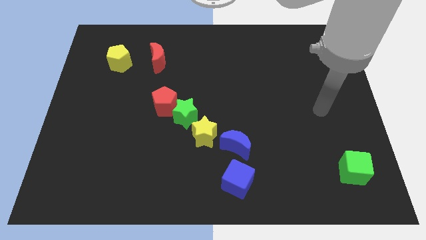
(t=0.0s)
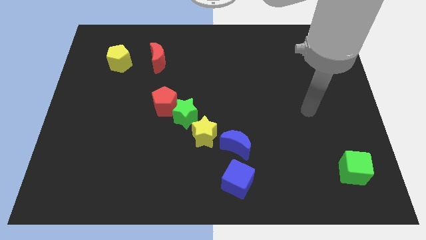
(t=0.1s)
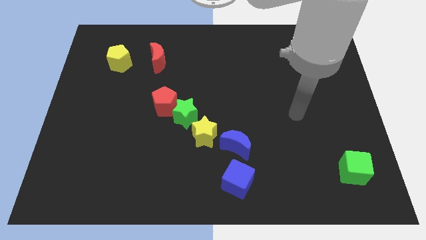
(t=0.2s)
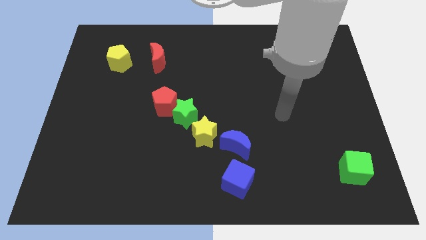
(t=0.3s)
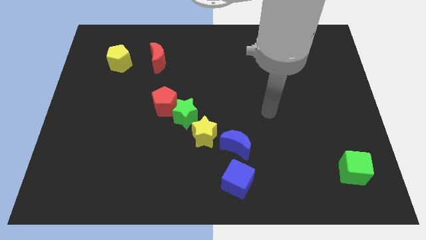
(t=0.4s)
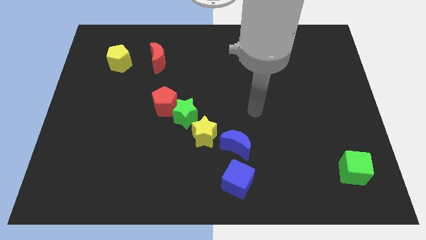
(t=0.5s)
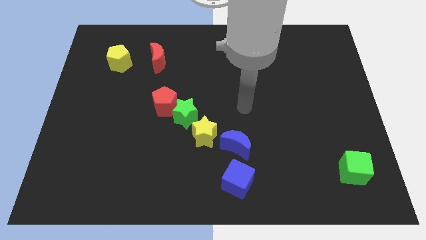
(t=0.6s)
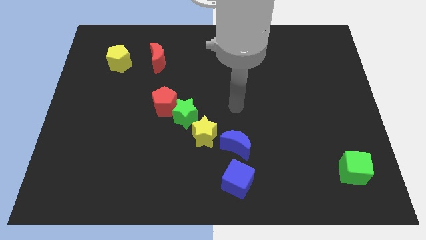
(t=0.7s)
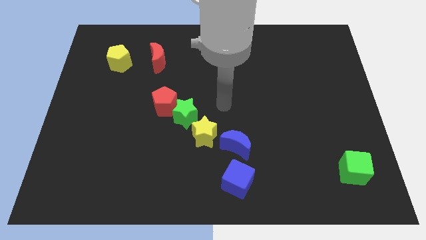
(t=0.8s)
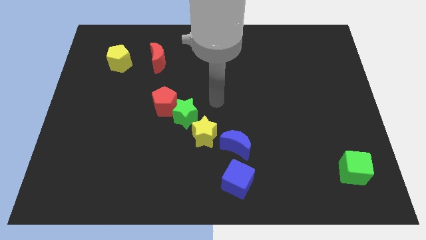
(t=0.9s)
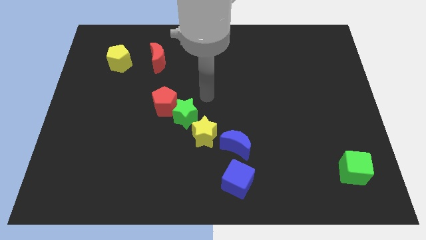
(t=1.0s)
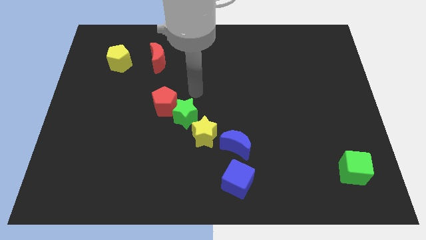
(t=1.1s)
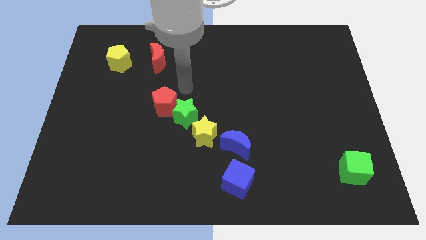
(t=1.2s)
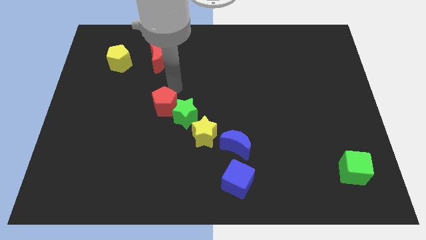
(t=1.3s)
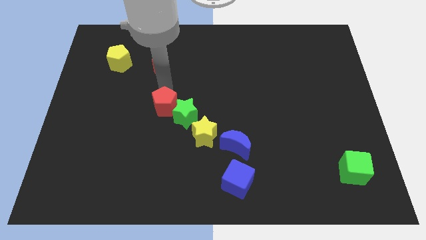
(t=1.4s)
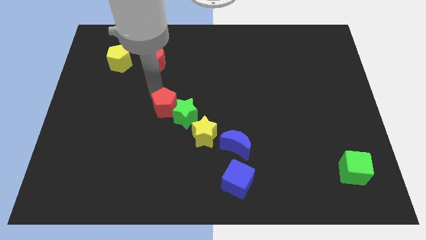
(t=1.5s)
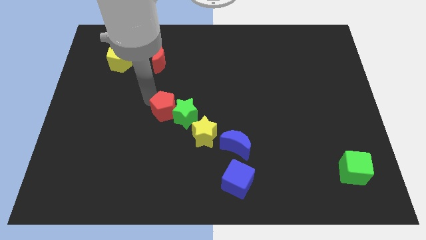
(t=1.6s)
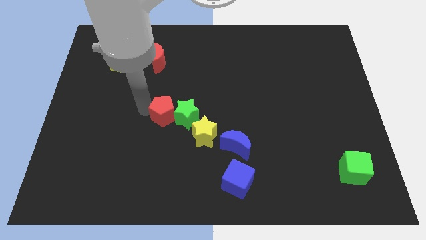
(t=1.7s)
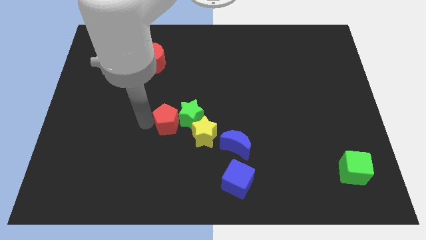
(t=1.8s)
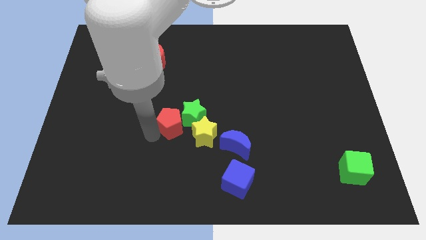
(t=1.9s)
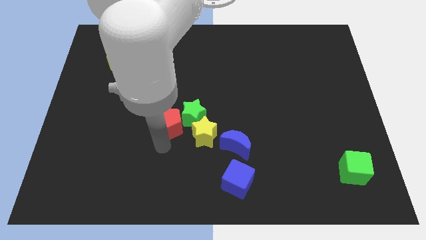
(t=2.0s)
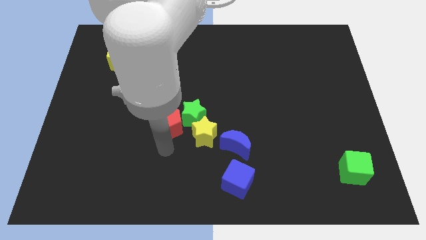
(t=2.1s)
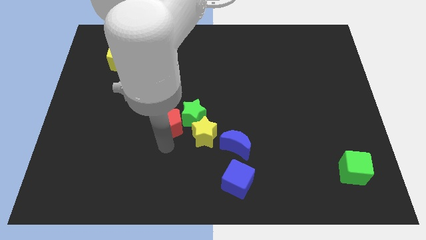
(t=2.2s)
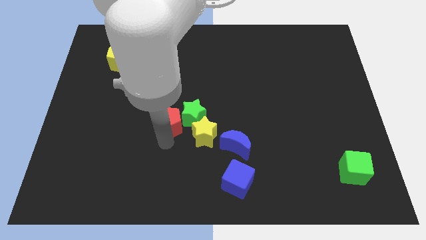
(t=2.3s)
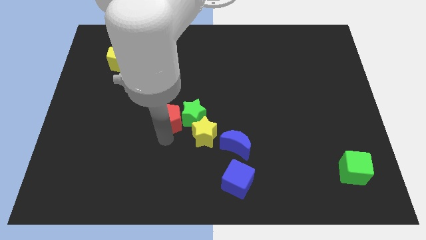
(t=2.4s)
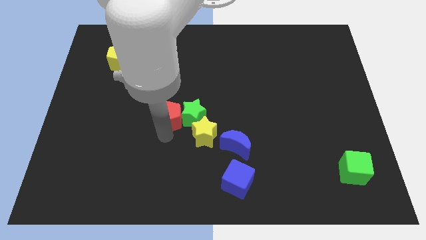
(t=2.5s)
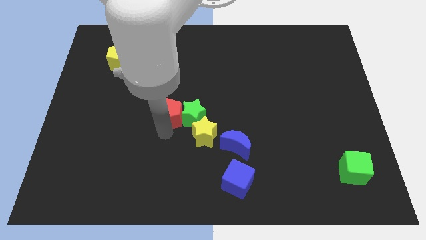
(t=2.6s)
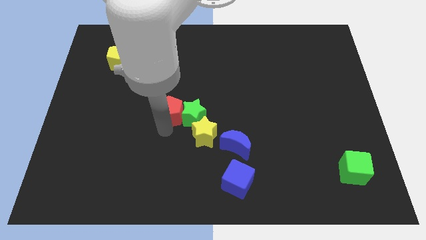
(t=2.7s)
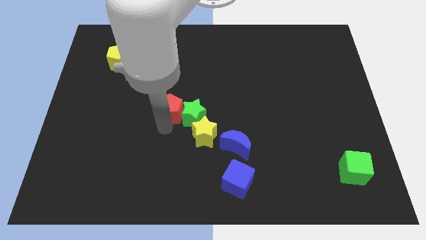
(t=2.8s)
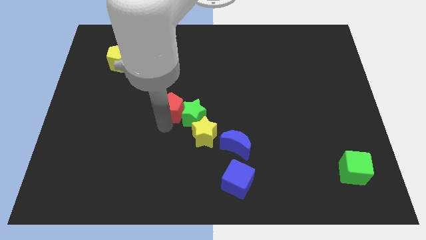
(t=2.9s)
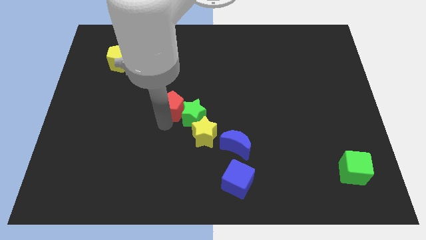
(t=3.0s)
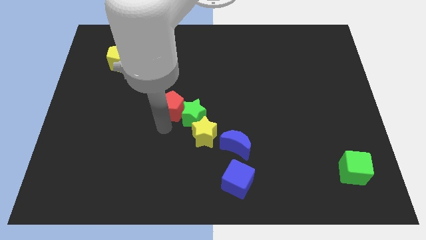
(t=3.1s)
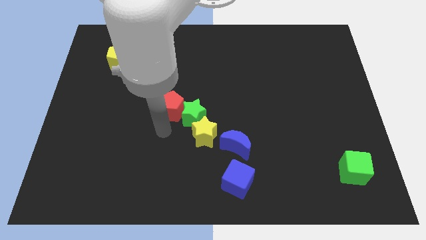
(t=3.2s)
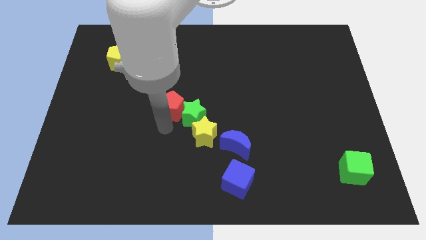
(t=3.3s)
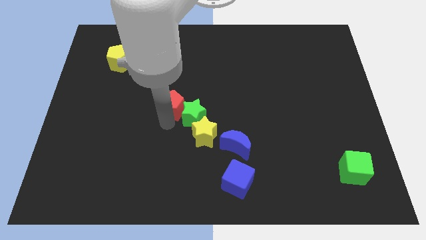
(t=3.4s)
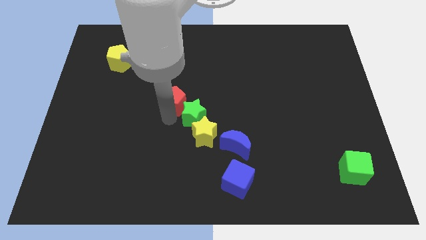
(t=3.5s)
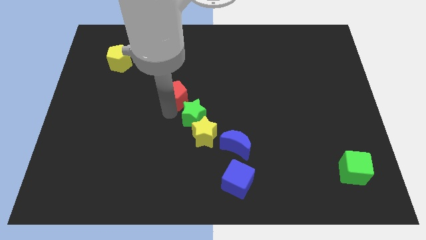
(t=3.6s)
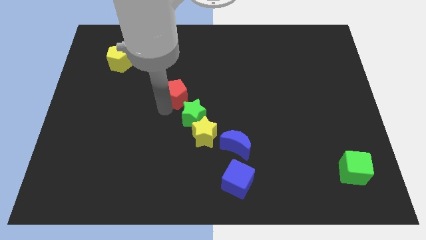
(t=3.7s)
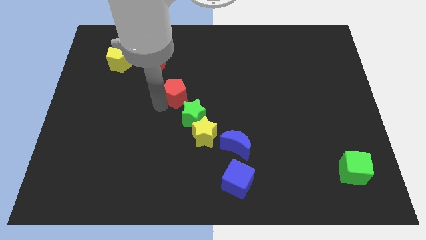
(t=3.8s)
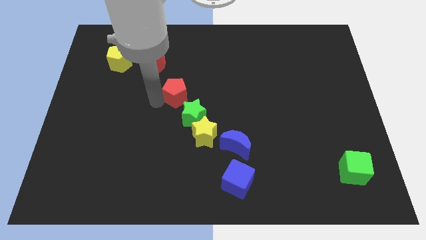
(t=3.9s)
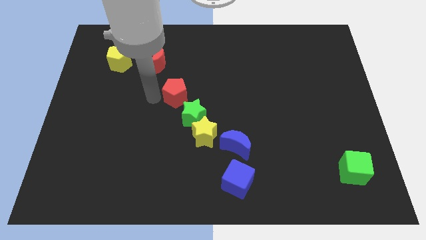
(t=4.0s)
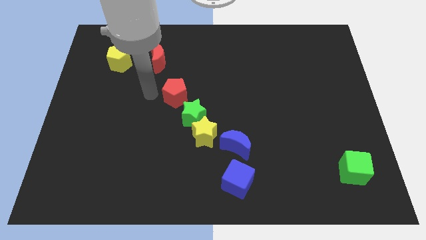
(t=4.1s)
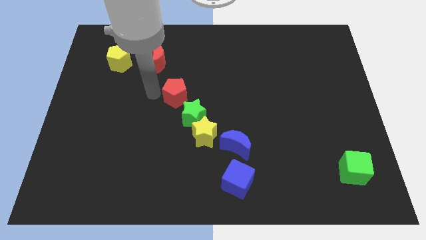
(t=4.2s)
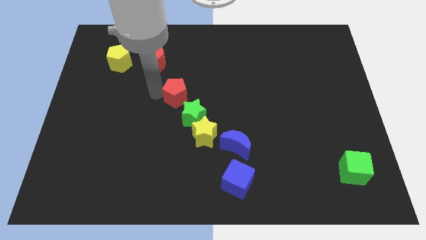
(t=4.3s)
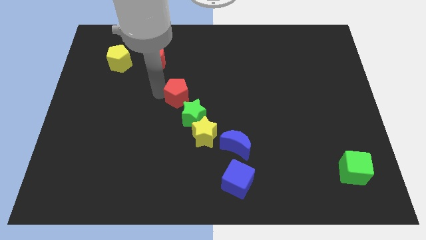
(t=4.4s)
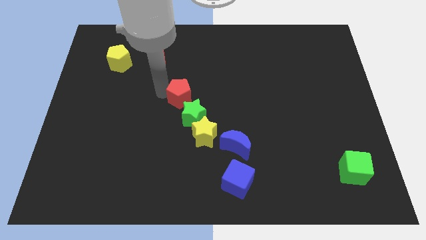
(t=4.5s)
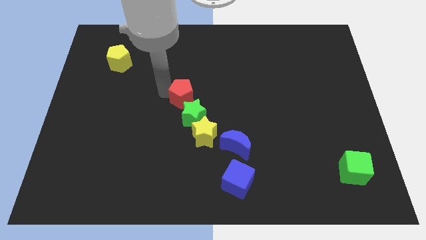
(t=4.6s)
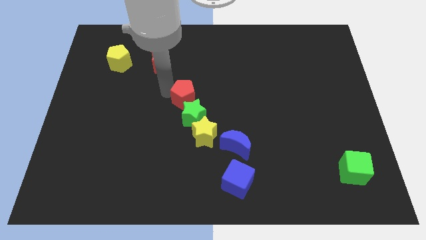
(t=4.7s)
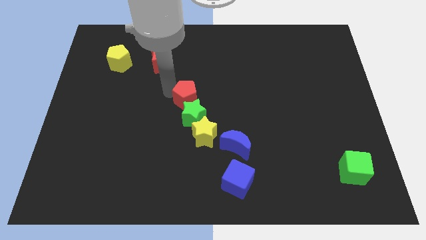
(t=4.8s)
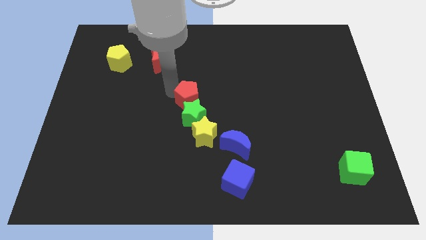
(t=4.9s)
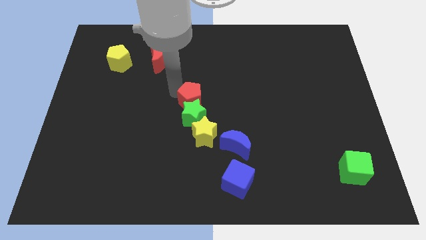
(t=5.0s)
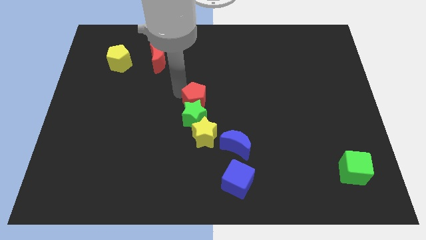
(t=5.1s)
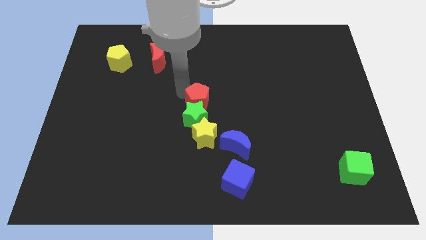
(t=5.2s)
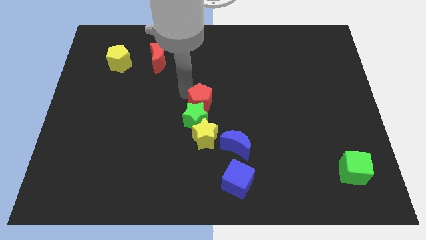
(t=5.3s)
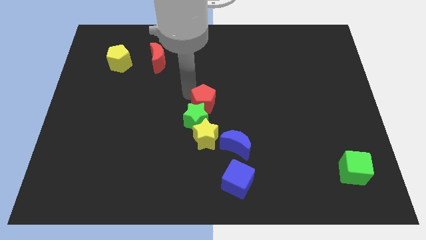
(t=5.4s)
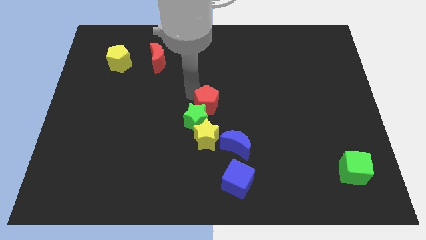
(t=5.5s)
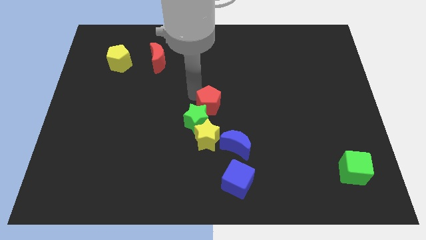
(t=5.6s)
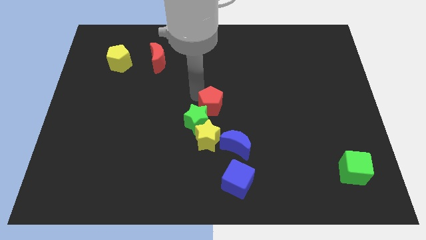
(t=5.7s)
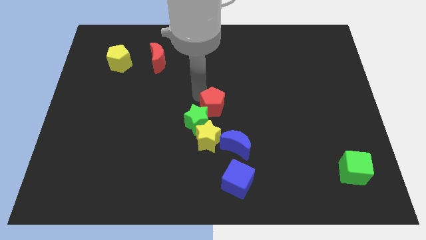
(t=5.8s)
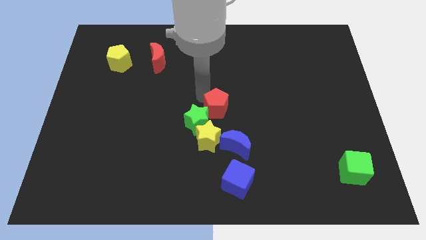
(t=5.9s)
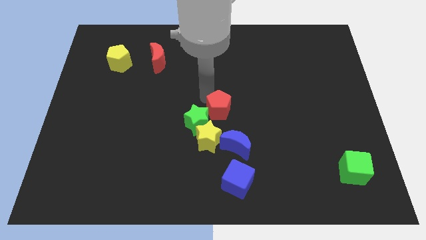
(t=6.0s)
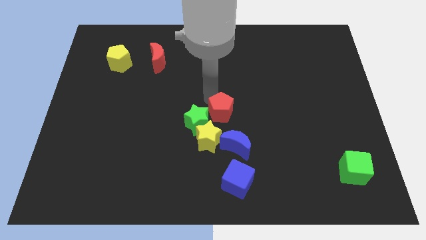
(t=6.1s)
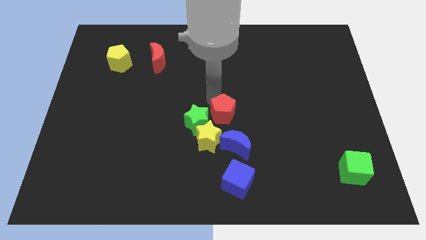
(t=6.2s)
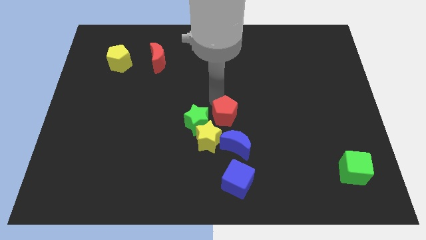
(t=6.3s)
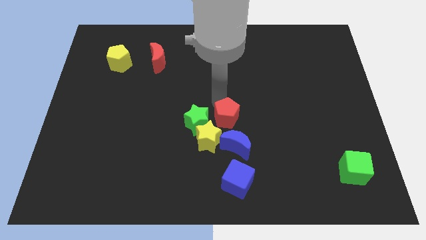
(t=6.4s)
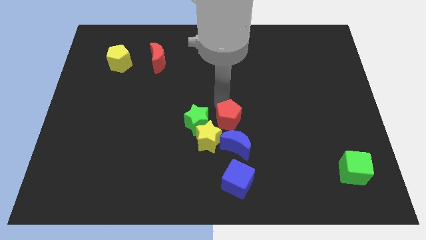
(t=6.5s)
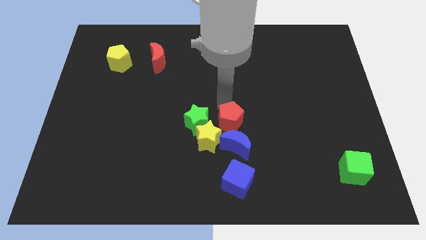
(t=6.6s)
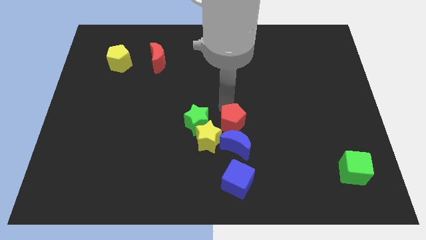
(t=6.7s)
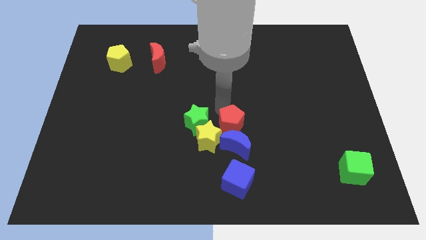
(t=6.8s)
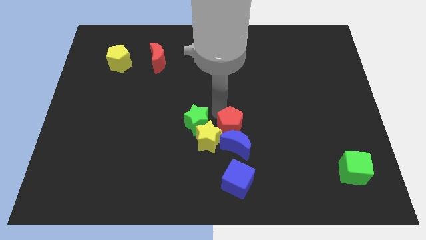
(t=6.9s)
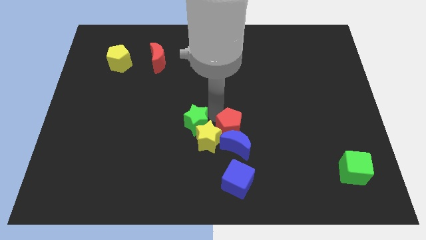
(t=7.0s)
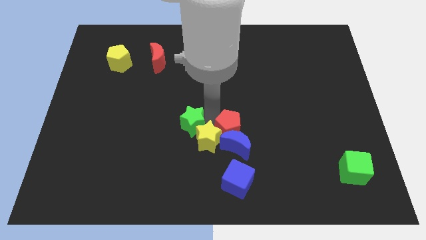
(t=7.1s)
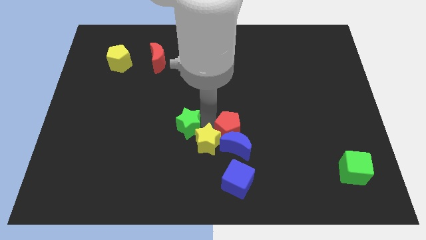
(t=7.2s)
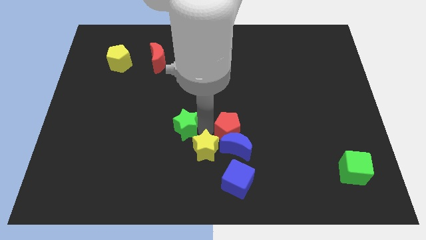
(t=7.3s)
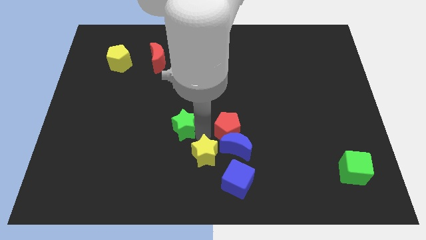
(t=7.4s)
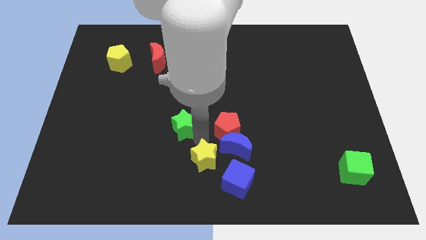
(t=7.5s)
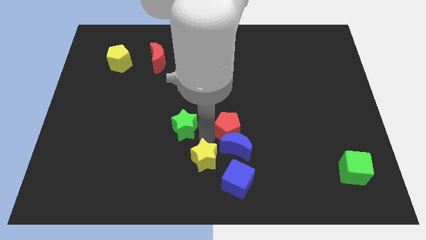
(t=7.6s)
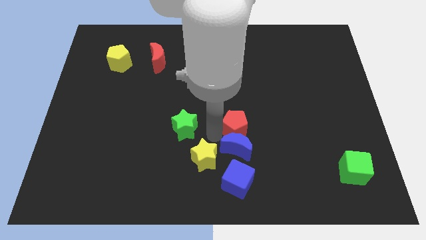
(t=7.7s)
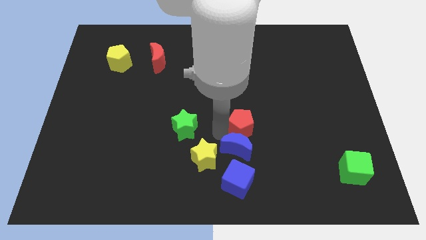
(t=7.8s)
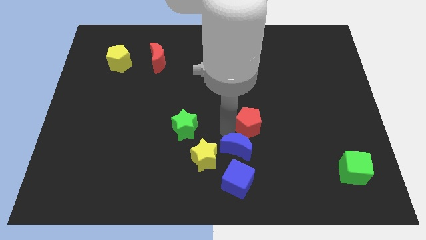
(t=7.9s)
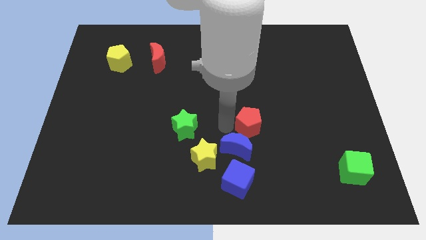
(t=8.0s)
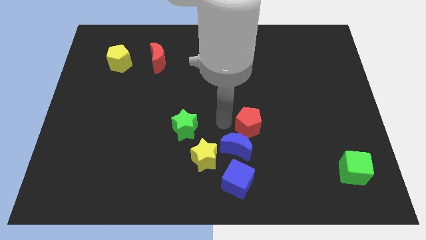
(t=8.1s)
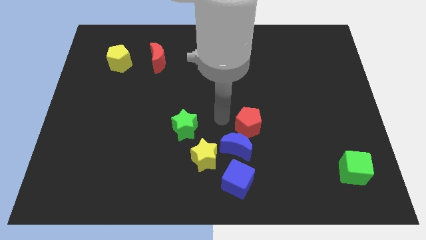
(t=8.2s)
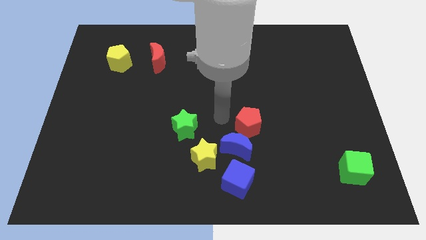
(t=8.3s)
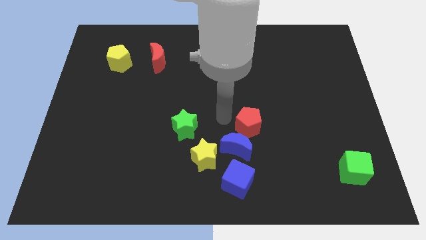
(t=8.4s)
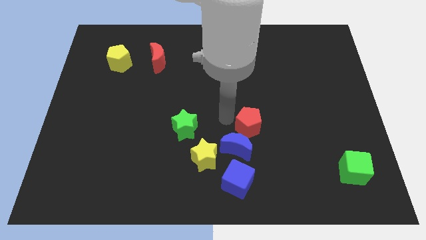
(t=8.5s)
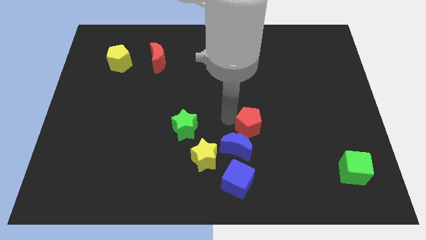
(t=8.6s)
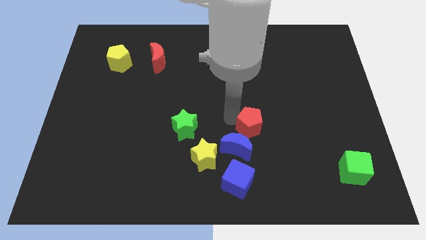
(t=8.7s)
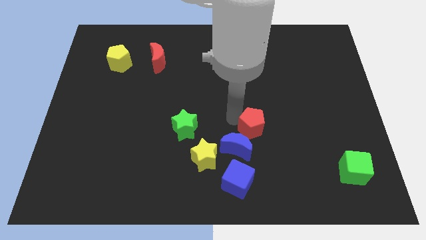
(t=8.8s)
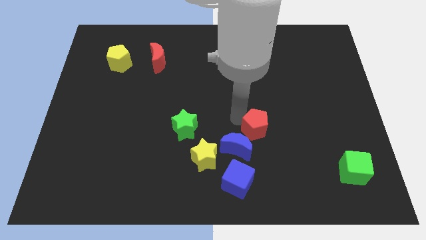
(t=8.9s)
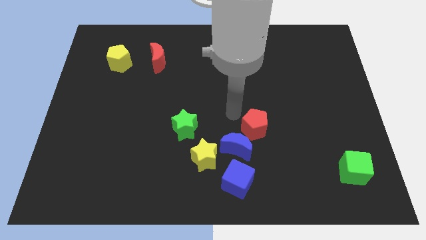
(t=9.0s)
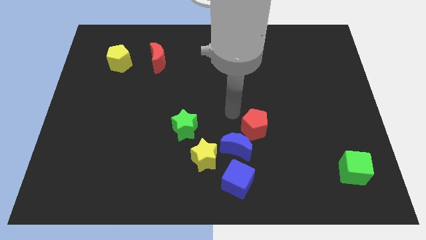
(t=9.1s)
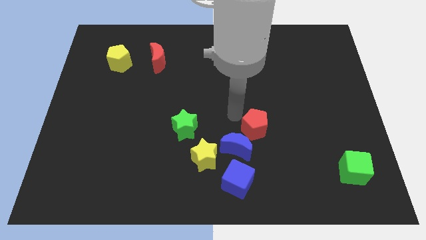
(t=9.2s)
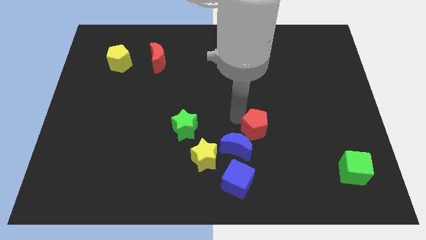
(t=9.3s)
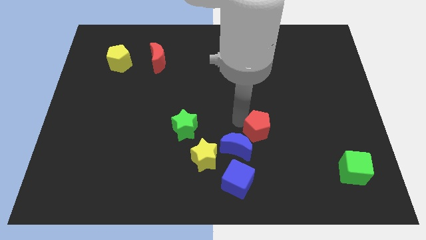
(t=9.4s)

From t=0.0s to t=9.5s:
move the red pentagon right of the blue moon
